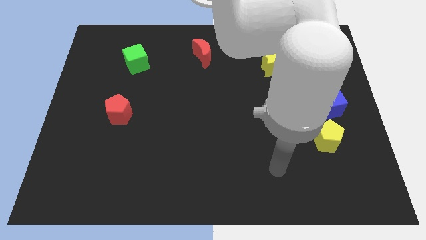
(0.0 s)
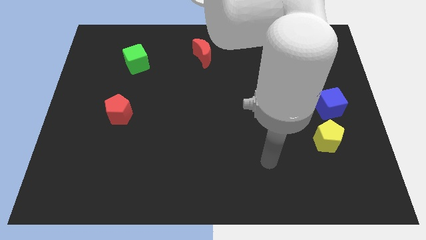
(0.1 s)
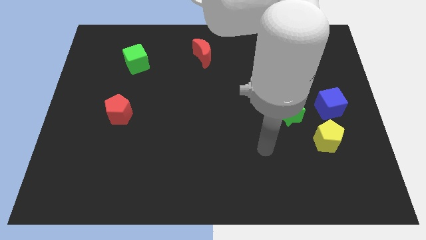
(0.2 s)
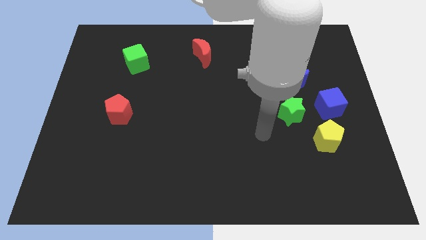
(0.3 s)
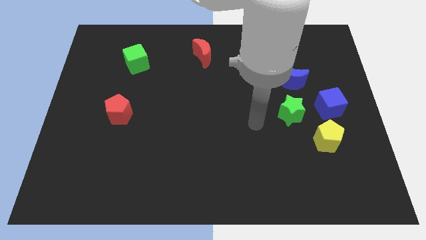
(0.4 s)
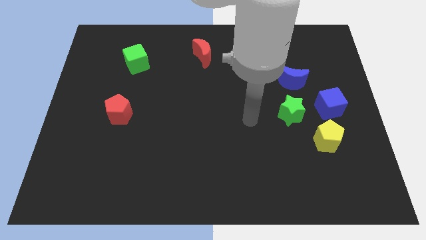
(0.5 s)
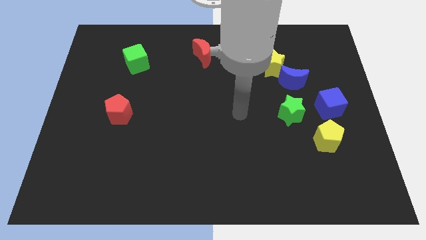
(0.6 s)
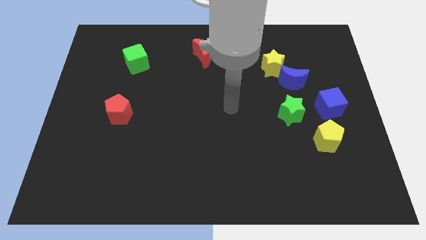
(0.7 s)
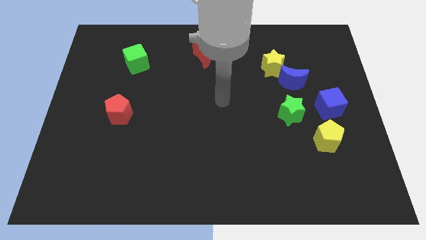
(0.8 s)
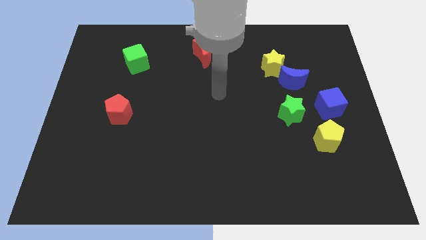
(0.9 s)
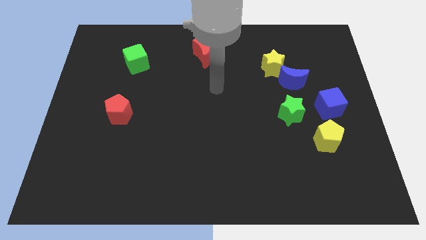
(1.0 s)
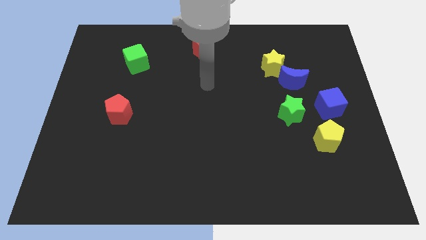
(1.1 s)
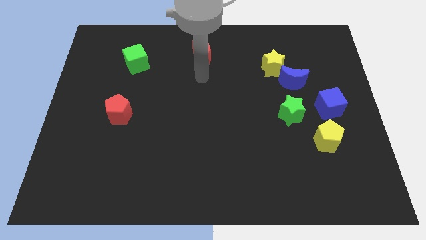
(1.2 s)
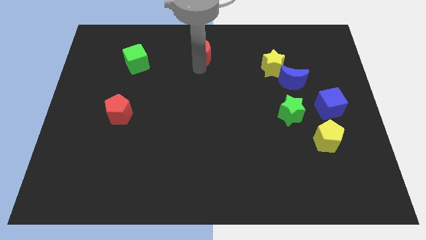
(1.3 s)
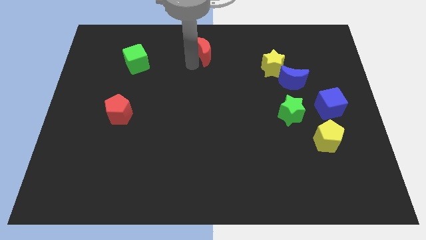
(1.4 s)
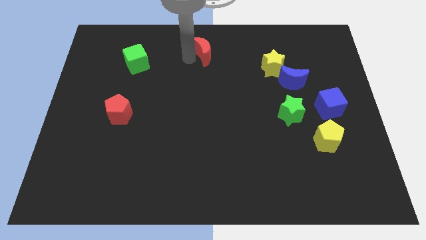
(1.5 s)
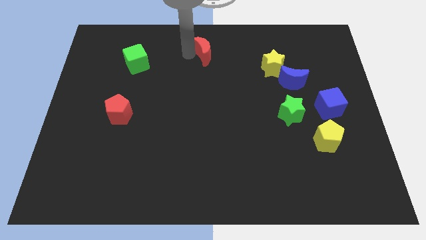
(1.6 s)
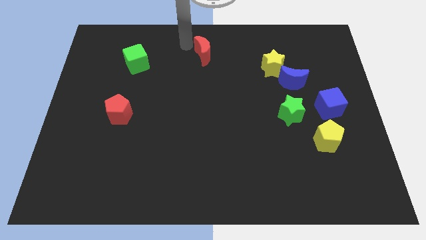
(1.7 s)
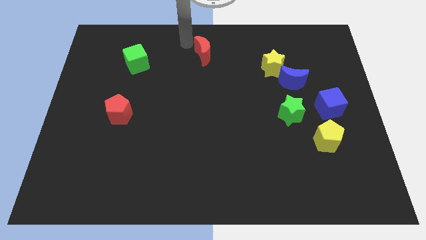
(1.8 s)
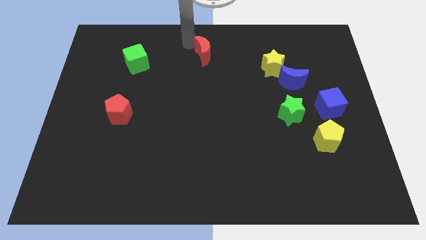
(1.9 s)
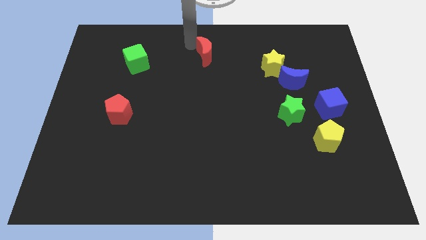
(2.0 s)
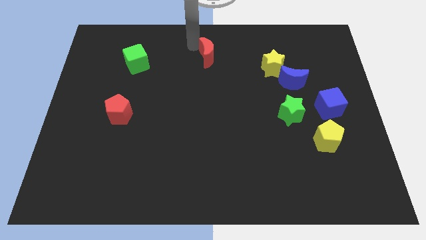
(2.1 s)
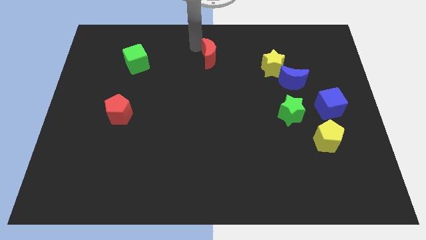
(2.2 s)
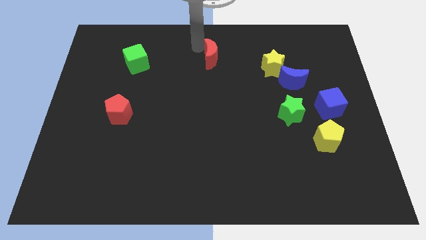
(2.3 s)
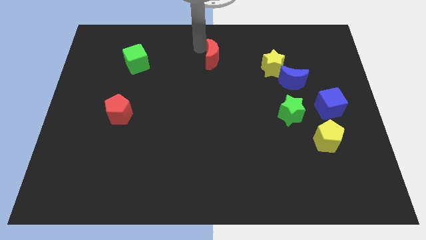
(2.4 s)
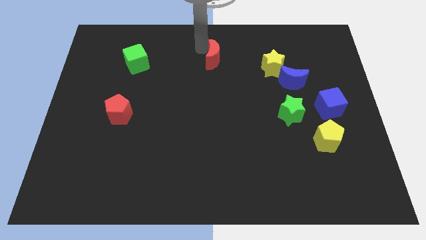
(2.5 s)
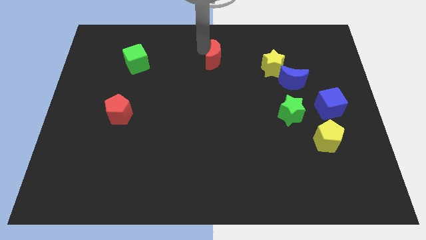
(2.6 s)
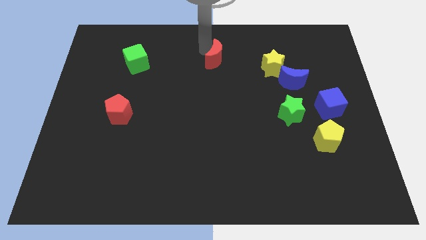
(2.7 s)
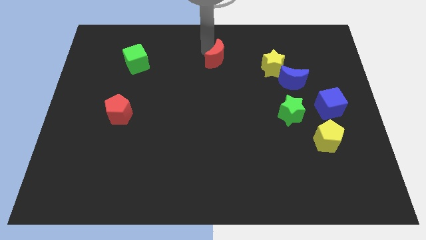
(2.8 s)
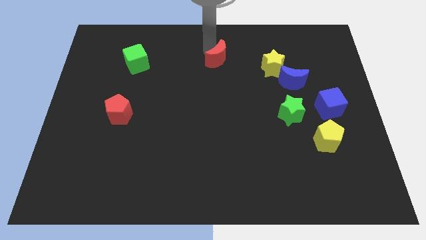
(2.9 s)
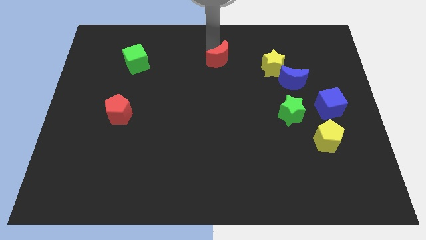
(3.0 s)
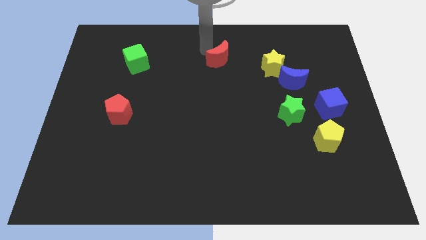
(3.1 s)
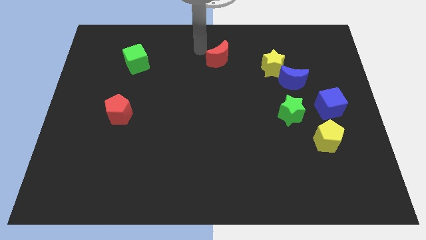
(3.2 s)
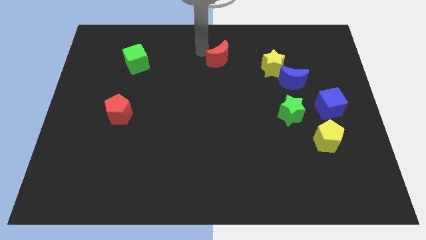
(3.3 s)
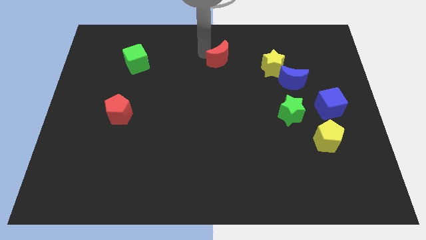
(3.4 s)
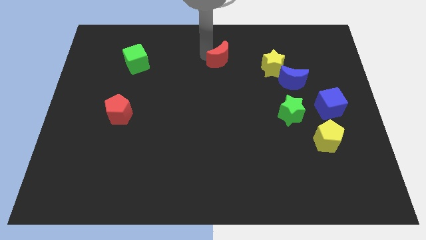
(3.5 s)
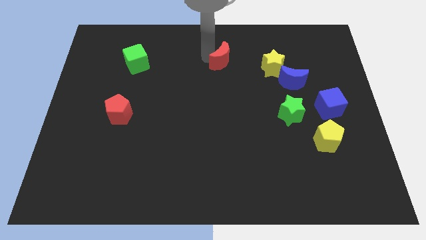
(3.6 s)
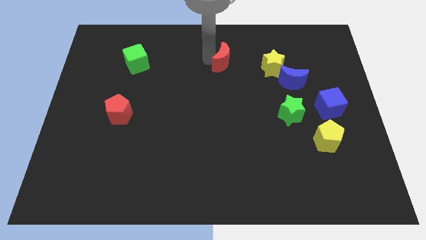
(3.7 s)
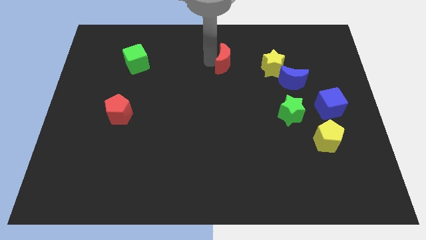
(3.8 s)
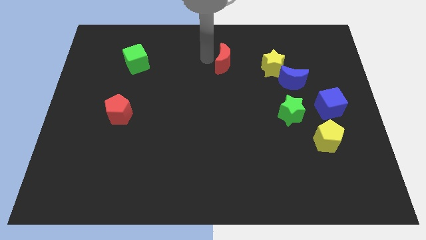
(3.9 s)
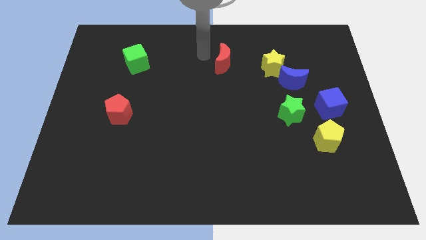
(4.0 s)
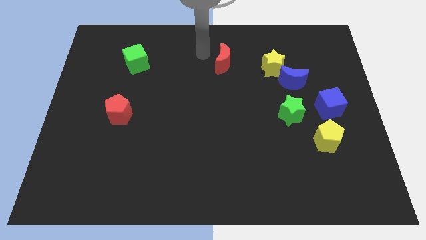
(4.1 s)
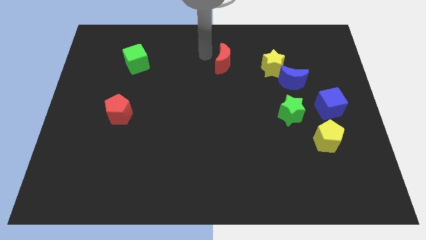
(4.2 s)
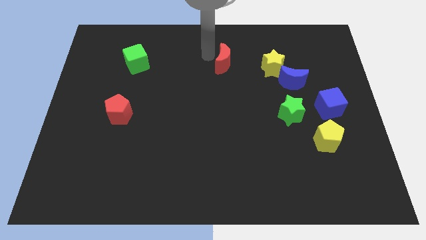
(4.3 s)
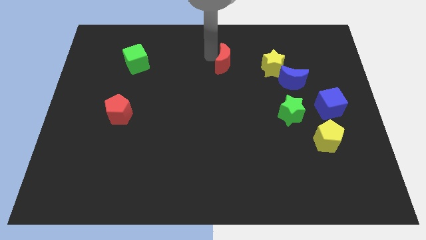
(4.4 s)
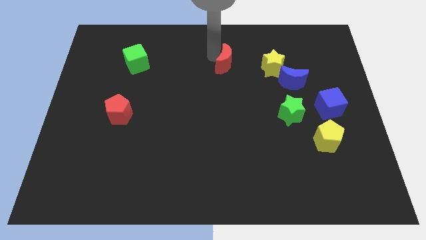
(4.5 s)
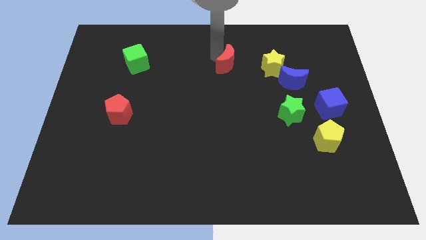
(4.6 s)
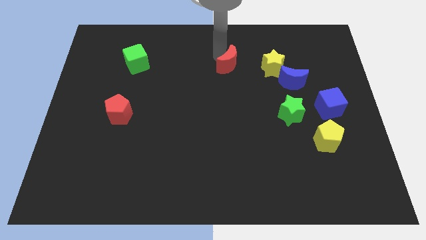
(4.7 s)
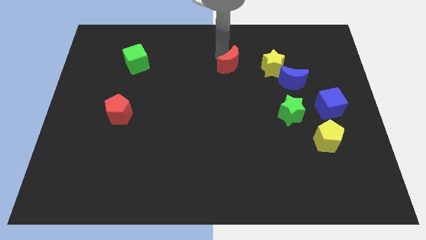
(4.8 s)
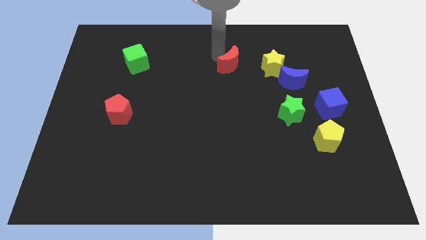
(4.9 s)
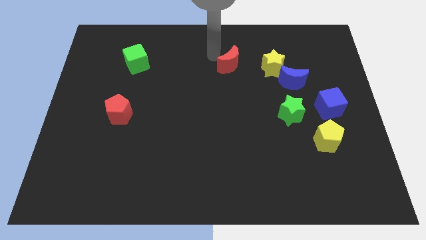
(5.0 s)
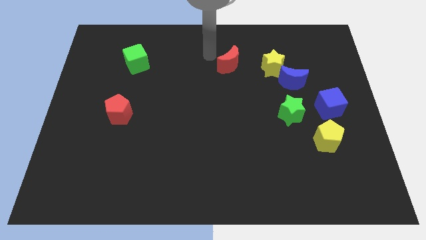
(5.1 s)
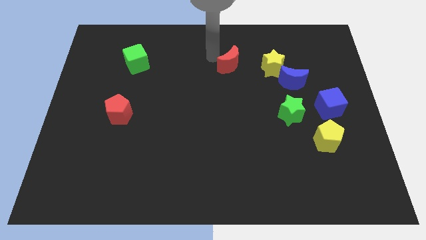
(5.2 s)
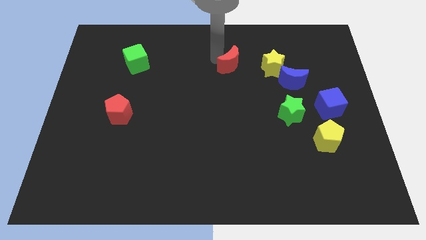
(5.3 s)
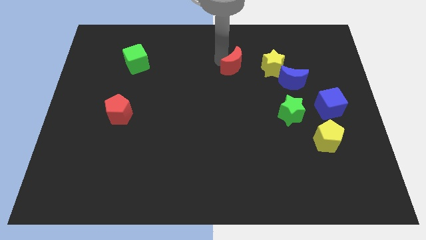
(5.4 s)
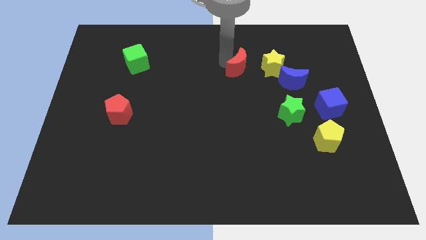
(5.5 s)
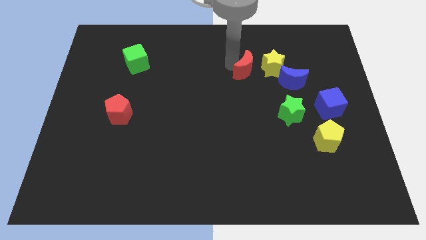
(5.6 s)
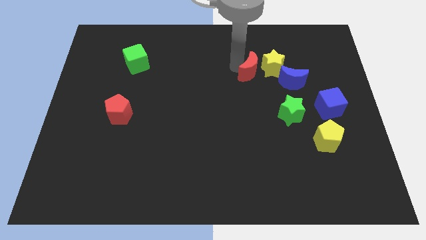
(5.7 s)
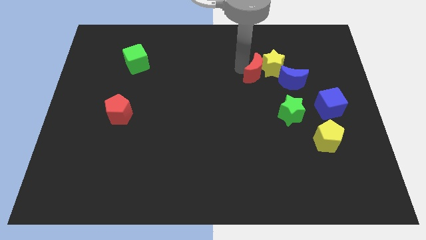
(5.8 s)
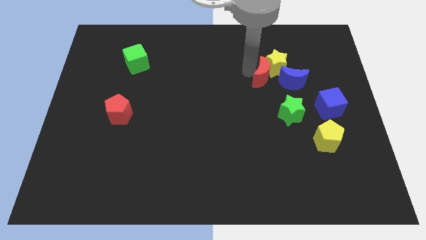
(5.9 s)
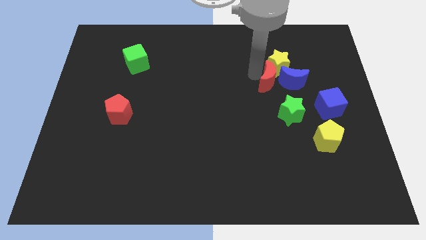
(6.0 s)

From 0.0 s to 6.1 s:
slide the red moon next to the blue moon
